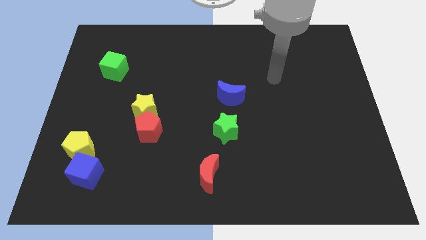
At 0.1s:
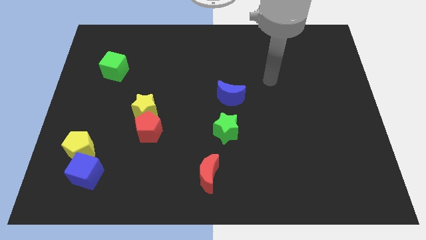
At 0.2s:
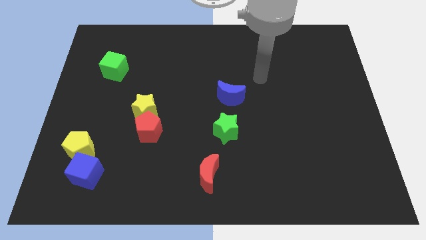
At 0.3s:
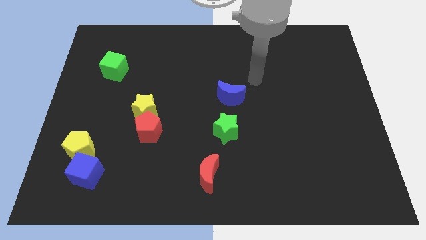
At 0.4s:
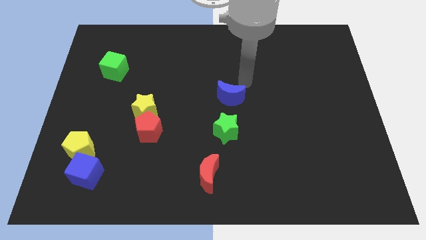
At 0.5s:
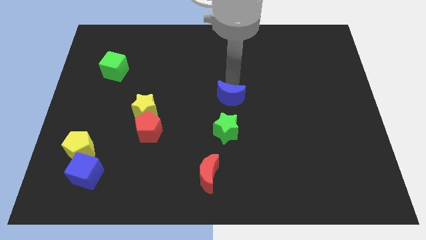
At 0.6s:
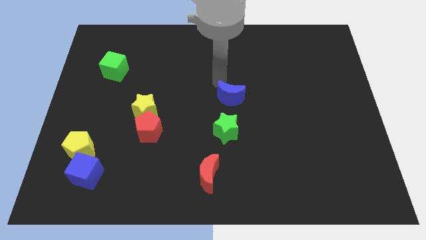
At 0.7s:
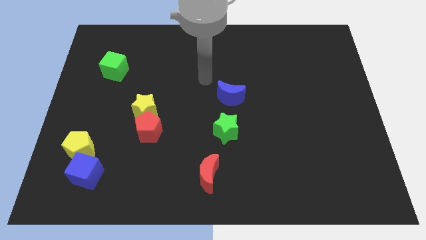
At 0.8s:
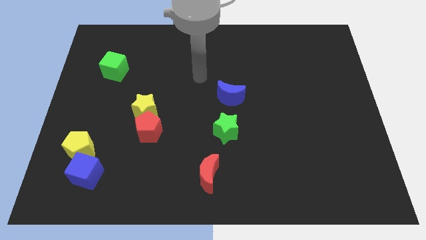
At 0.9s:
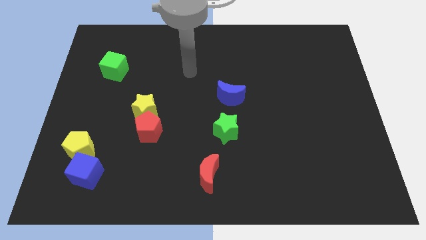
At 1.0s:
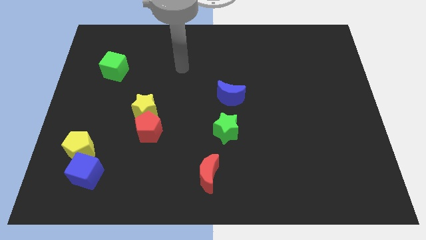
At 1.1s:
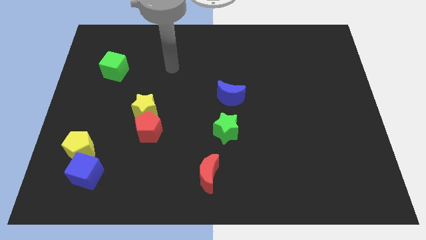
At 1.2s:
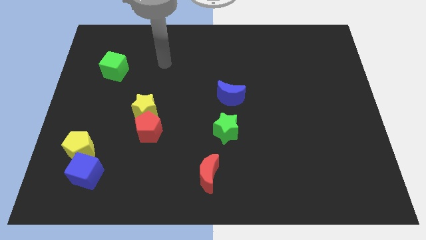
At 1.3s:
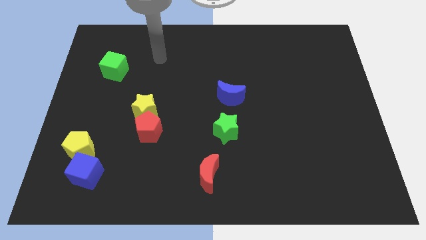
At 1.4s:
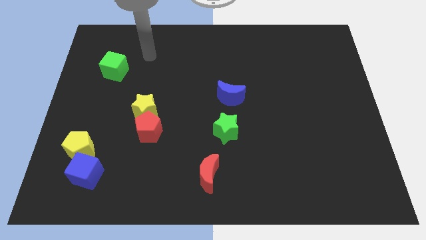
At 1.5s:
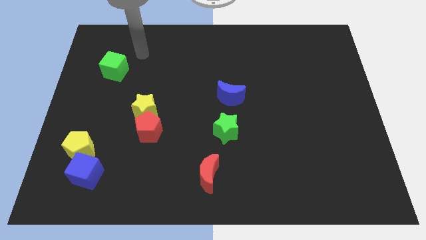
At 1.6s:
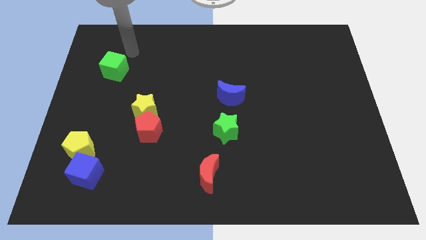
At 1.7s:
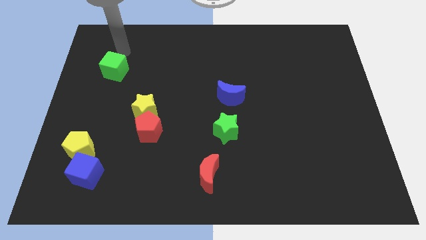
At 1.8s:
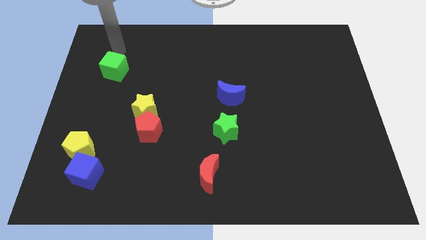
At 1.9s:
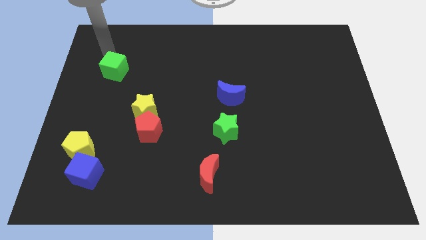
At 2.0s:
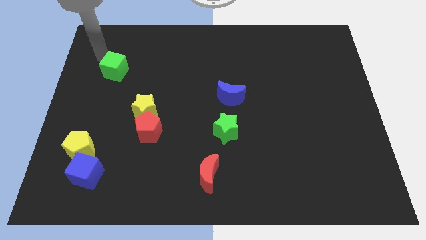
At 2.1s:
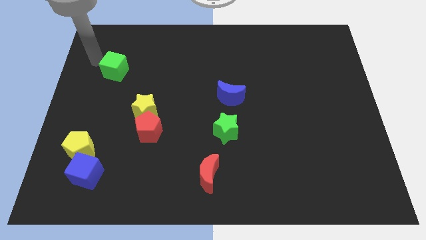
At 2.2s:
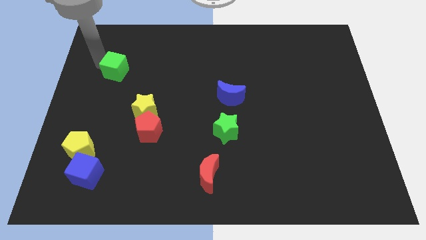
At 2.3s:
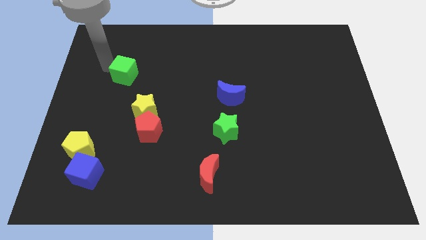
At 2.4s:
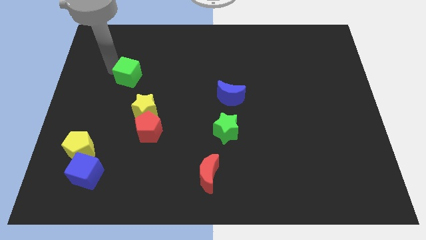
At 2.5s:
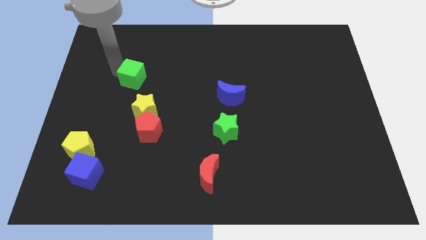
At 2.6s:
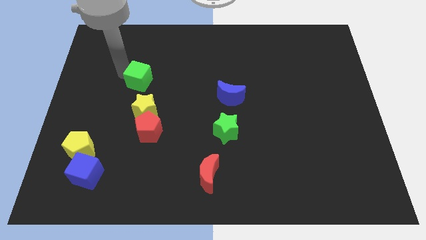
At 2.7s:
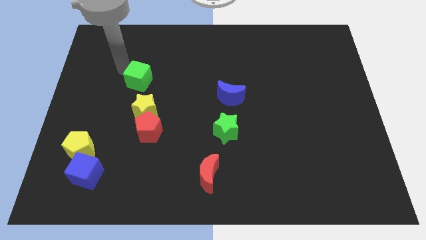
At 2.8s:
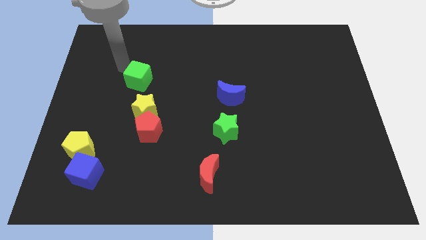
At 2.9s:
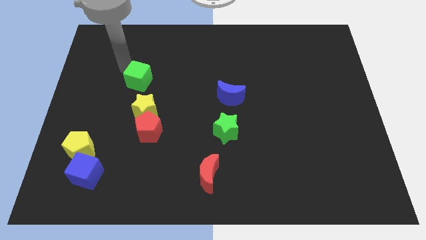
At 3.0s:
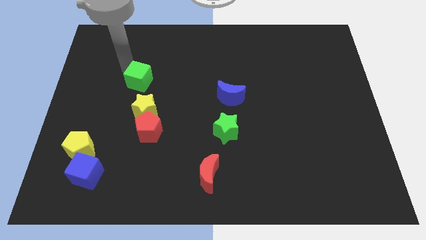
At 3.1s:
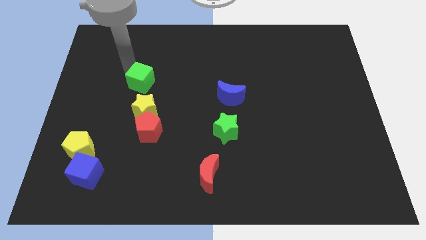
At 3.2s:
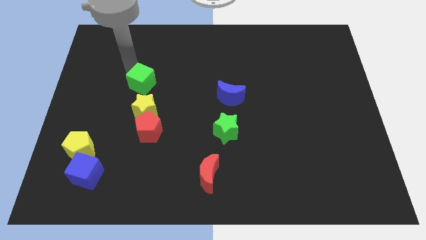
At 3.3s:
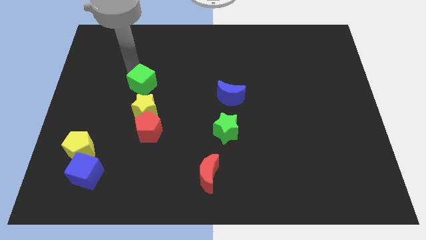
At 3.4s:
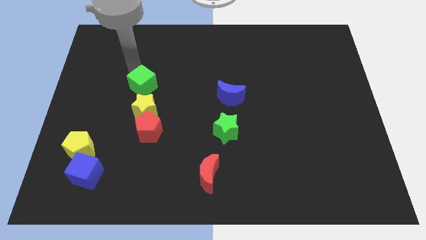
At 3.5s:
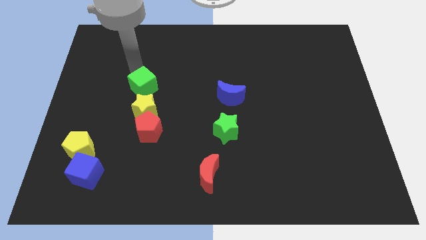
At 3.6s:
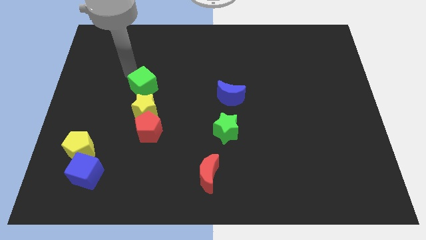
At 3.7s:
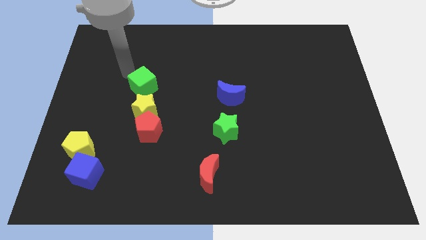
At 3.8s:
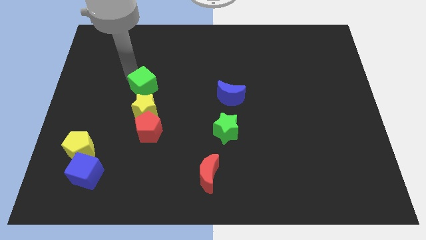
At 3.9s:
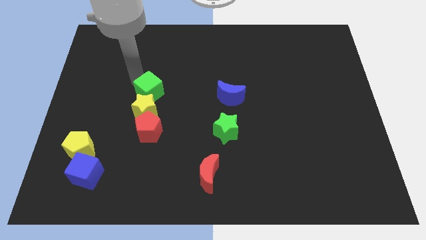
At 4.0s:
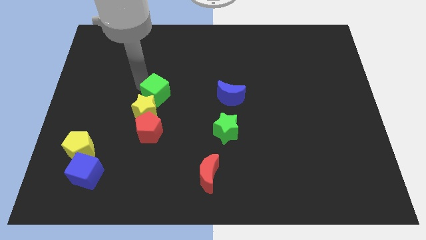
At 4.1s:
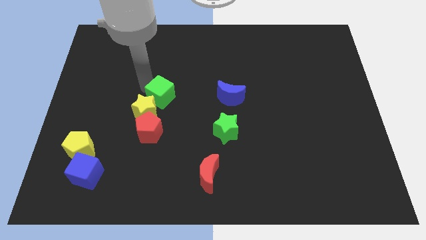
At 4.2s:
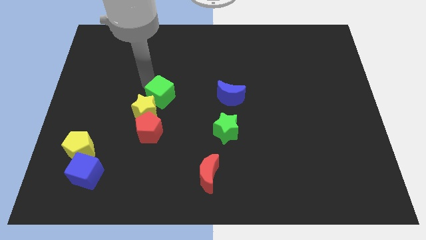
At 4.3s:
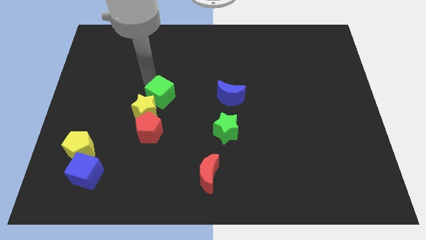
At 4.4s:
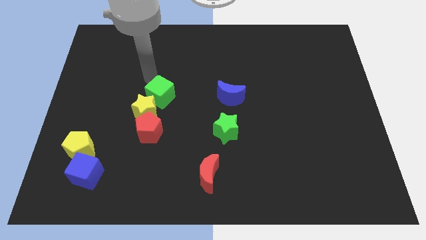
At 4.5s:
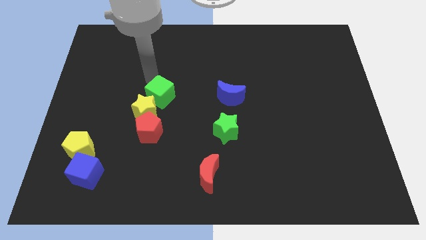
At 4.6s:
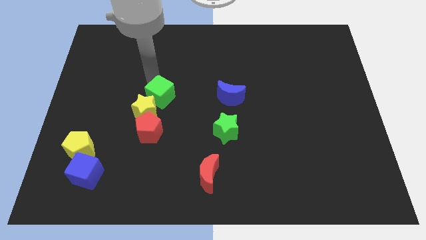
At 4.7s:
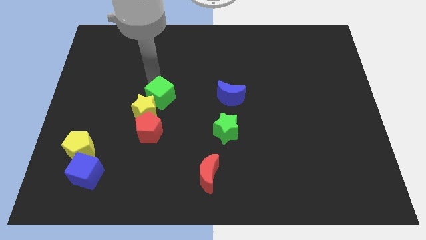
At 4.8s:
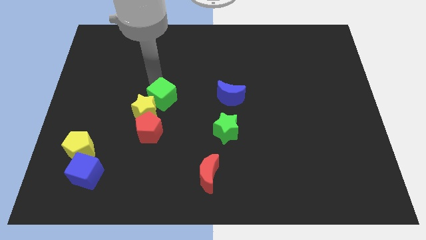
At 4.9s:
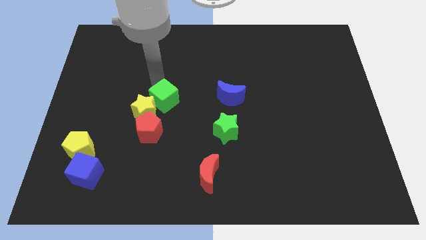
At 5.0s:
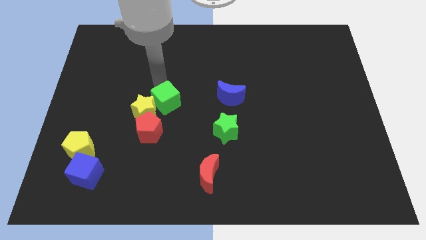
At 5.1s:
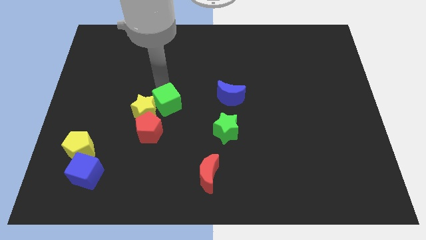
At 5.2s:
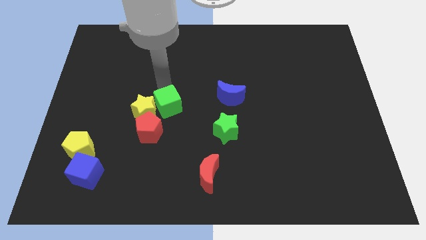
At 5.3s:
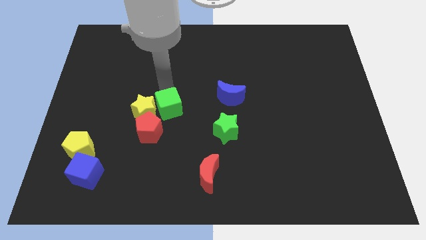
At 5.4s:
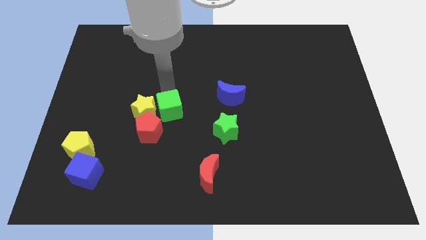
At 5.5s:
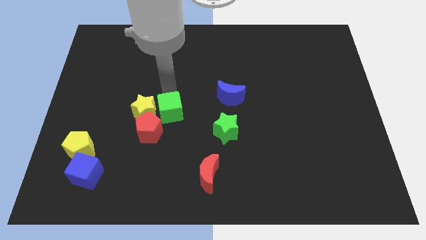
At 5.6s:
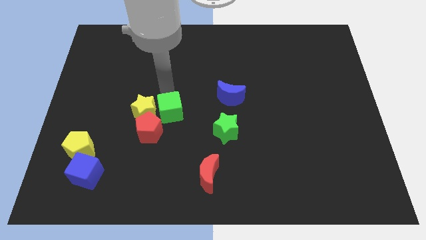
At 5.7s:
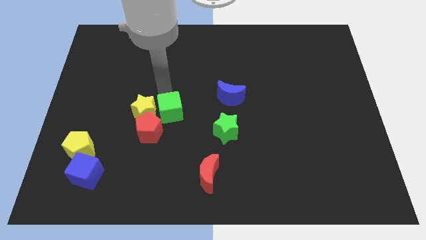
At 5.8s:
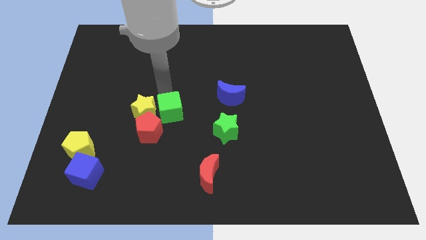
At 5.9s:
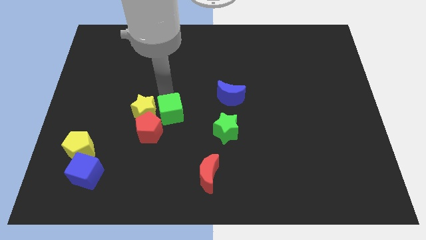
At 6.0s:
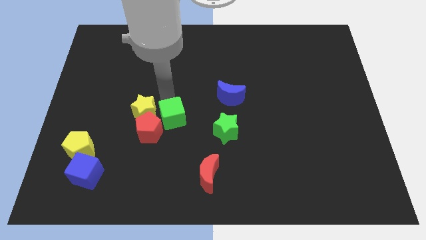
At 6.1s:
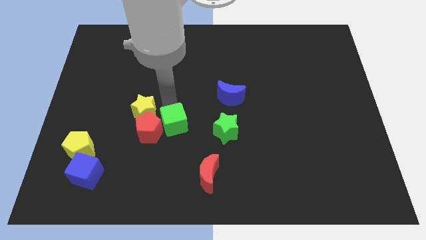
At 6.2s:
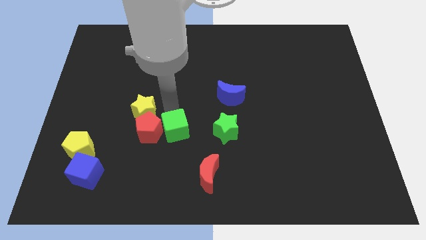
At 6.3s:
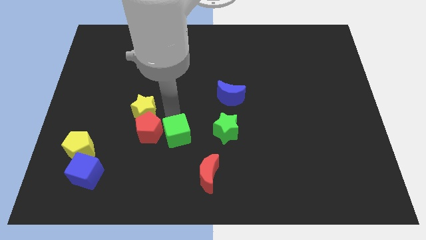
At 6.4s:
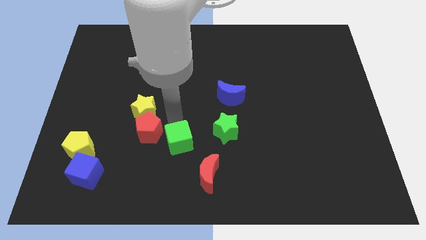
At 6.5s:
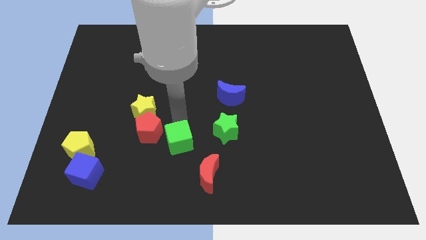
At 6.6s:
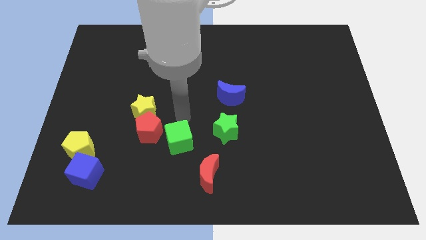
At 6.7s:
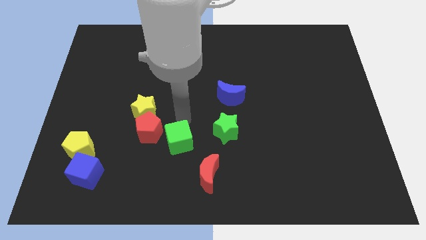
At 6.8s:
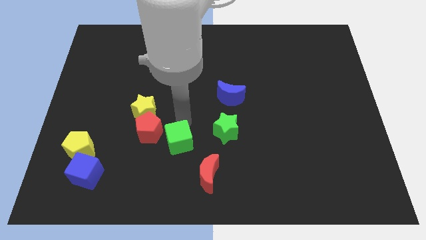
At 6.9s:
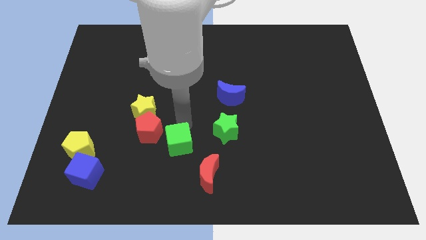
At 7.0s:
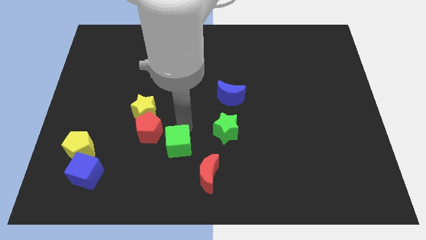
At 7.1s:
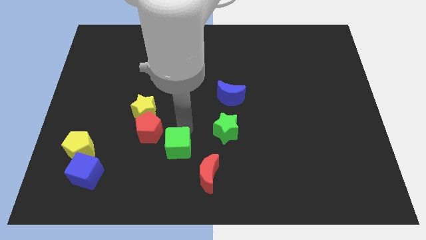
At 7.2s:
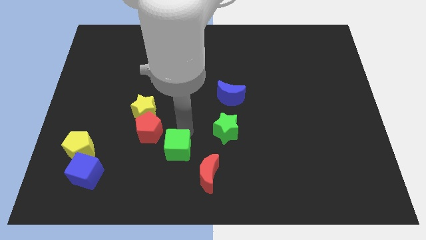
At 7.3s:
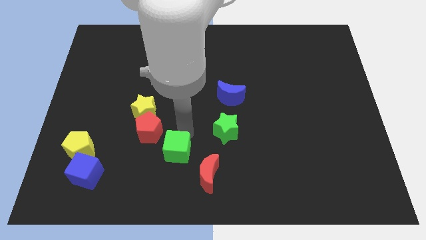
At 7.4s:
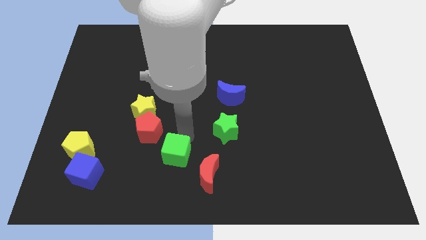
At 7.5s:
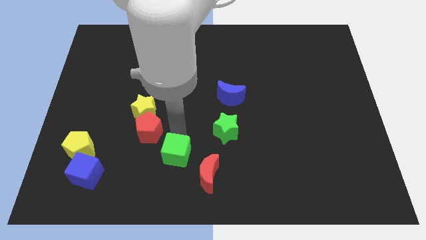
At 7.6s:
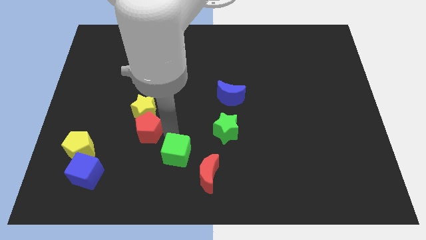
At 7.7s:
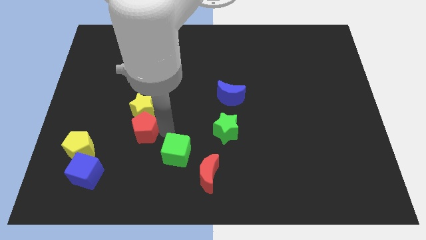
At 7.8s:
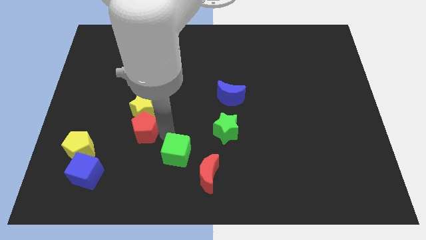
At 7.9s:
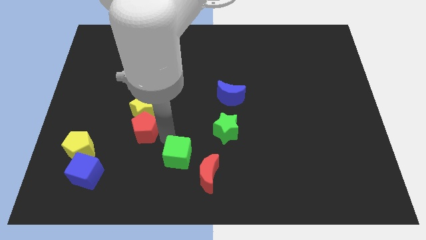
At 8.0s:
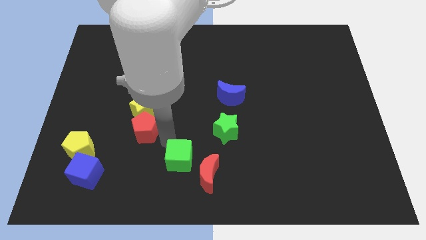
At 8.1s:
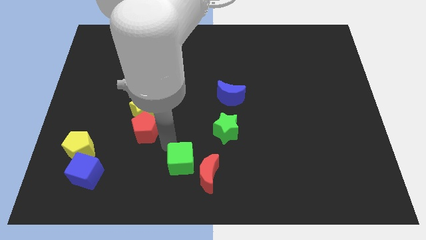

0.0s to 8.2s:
put the green cube to the bottom
